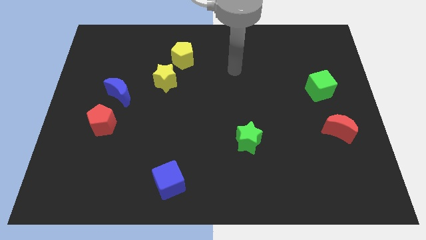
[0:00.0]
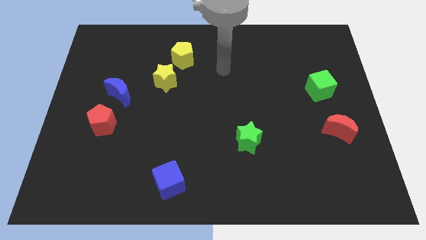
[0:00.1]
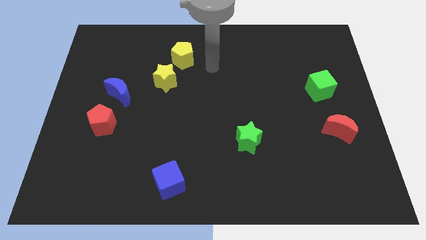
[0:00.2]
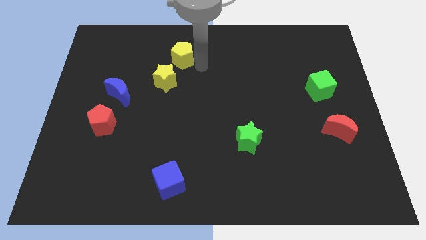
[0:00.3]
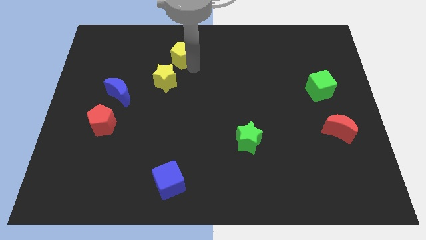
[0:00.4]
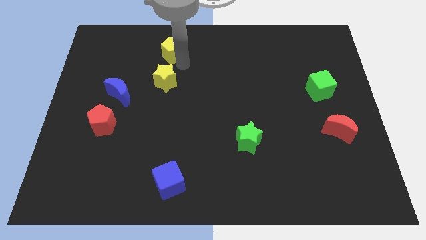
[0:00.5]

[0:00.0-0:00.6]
move the yellow star away from the yellow pentagon

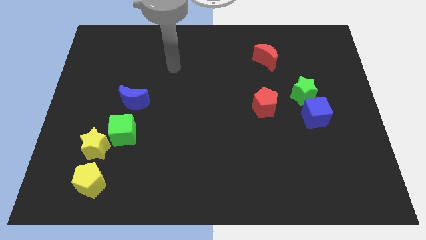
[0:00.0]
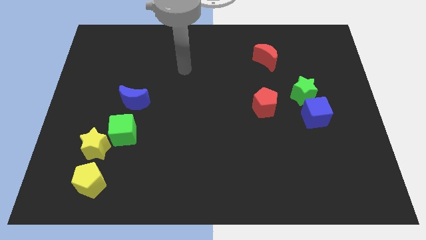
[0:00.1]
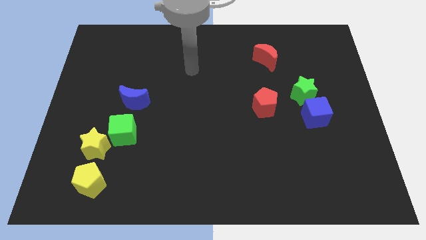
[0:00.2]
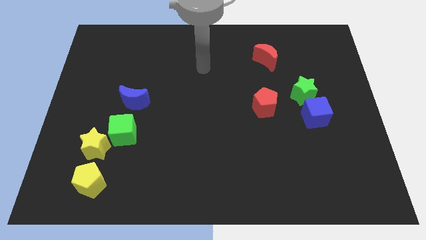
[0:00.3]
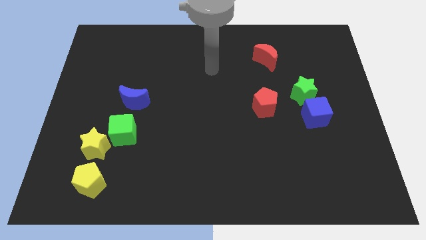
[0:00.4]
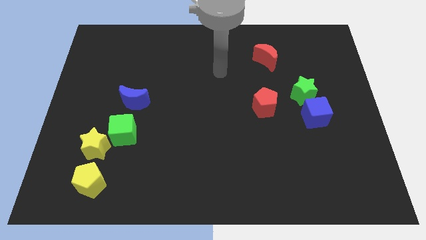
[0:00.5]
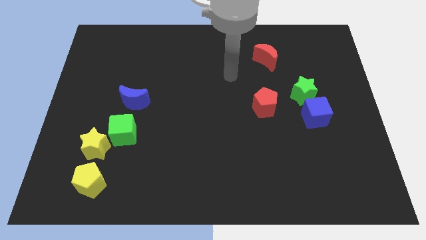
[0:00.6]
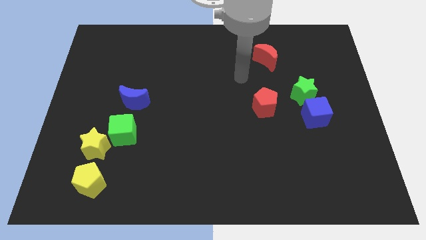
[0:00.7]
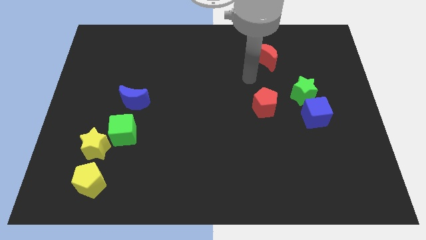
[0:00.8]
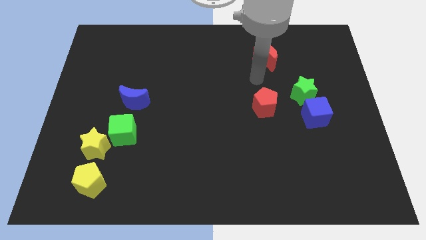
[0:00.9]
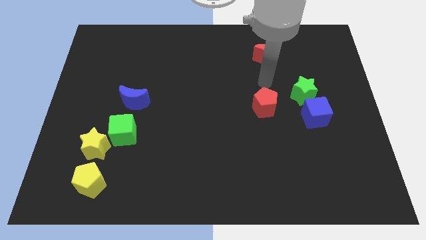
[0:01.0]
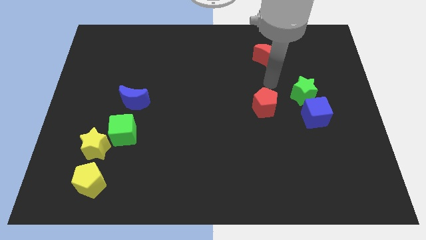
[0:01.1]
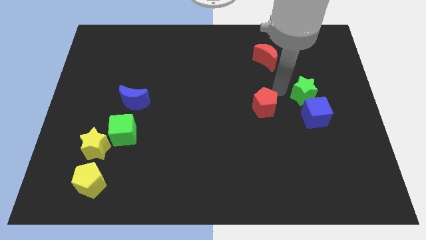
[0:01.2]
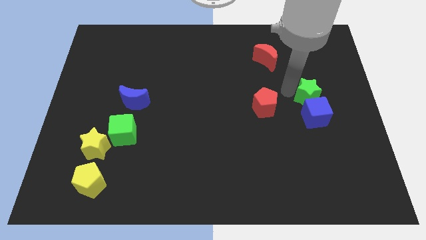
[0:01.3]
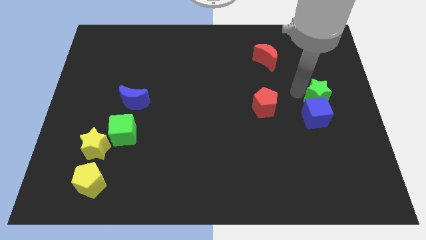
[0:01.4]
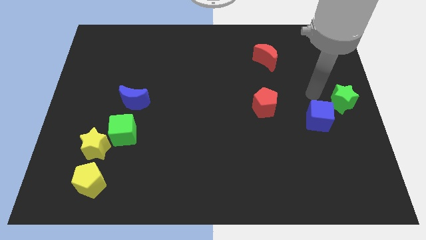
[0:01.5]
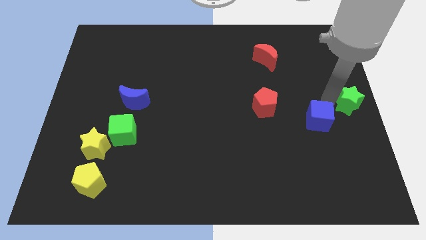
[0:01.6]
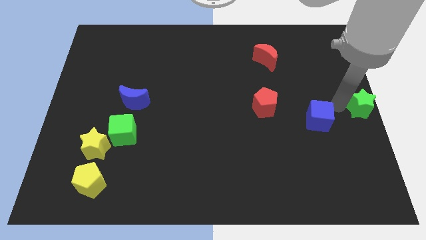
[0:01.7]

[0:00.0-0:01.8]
pull the blue cube apart from the green star

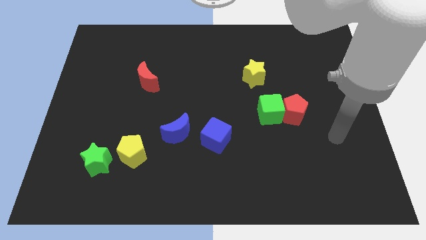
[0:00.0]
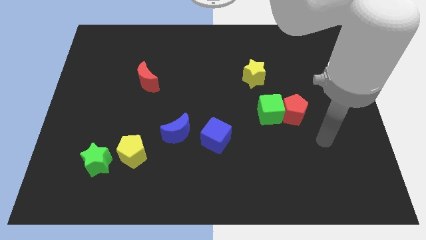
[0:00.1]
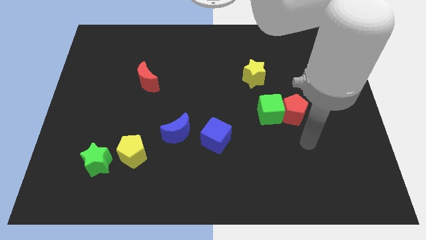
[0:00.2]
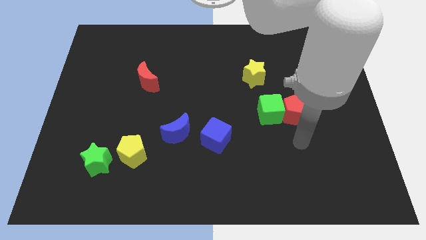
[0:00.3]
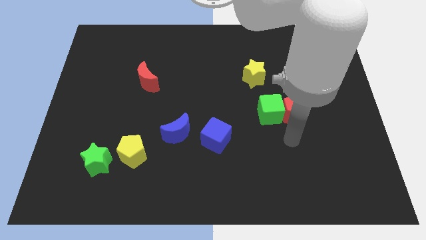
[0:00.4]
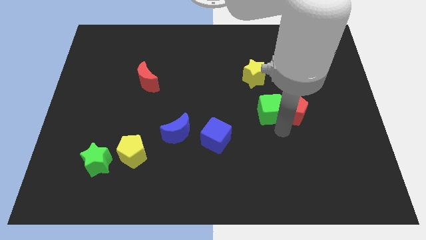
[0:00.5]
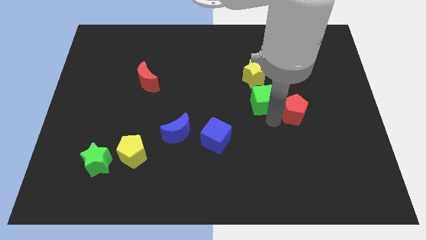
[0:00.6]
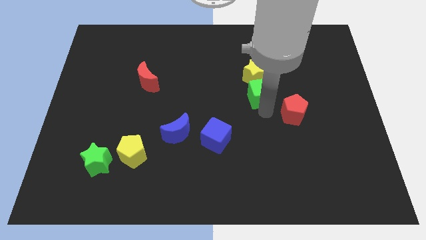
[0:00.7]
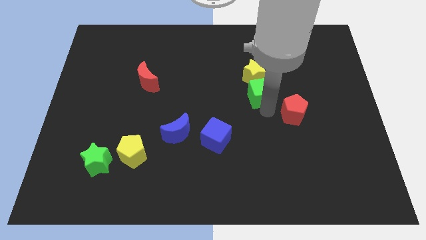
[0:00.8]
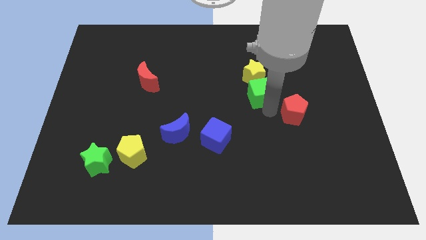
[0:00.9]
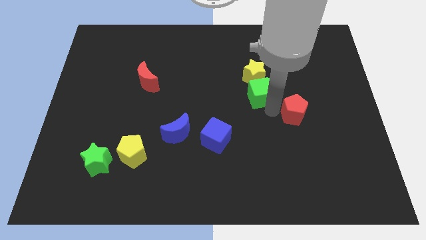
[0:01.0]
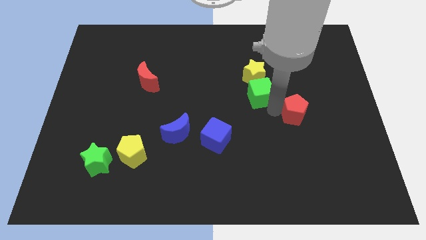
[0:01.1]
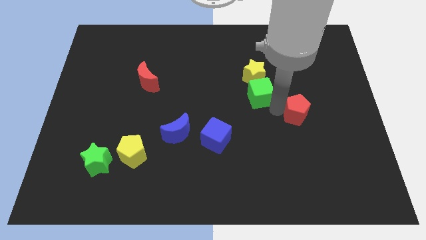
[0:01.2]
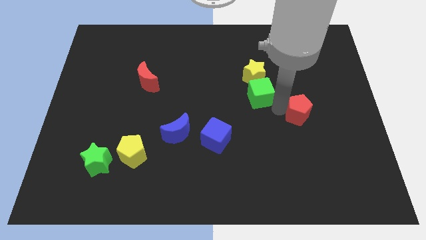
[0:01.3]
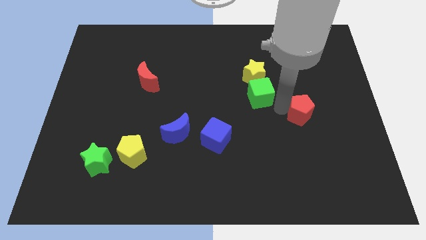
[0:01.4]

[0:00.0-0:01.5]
separate the red pentagon from the green cube

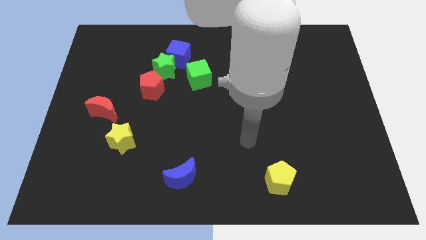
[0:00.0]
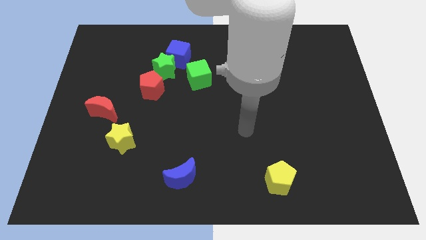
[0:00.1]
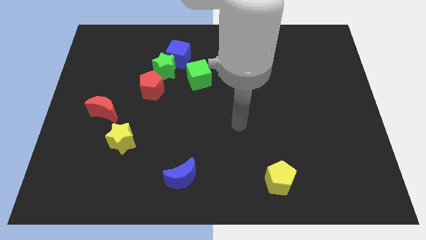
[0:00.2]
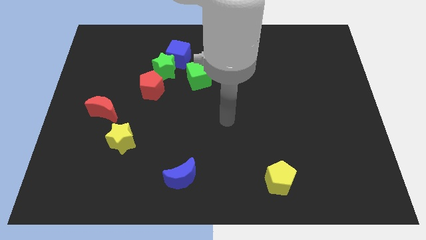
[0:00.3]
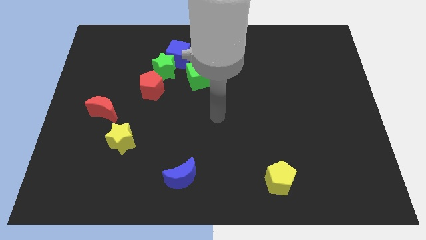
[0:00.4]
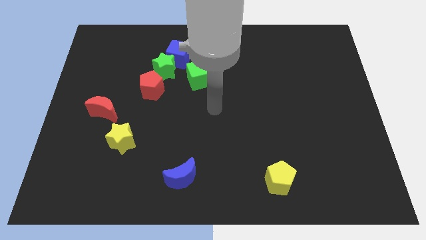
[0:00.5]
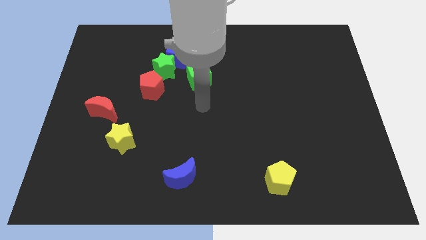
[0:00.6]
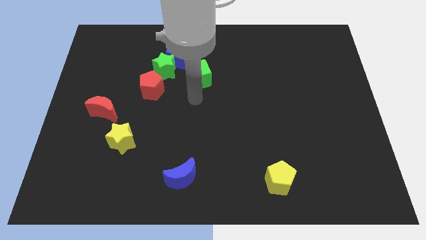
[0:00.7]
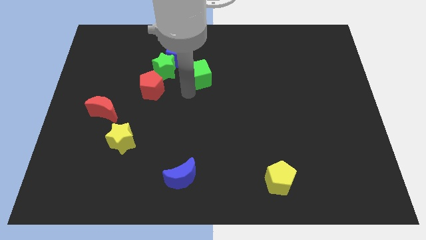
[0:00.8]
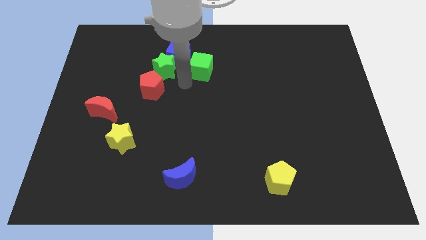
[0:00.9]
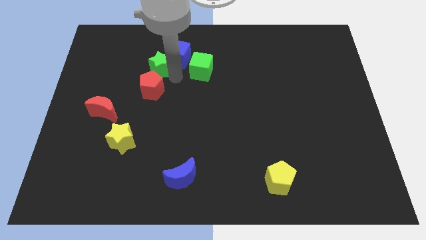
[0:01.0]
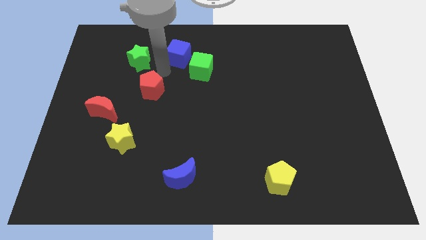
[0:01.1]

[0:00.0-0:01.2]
move the red pentagon away from the green star

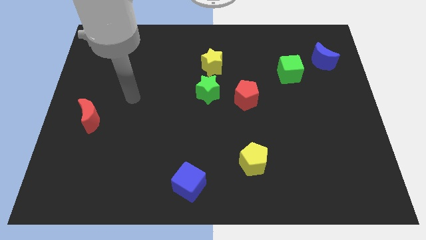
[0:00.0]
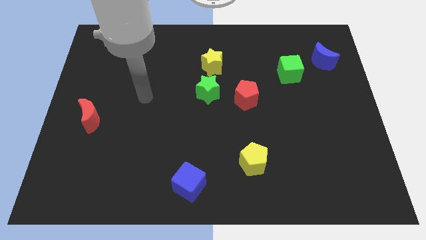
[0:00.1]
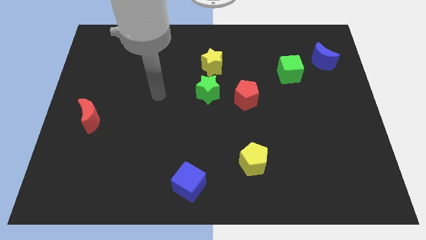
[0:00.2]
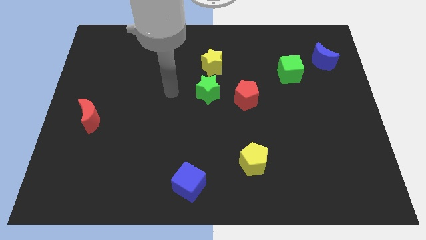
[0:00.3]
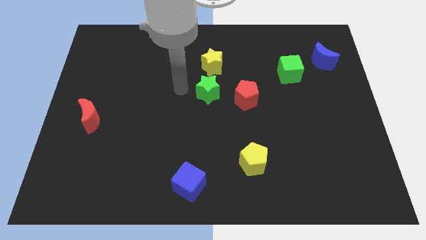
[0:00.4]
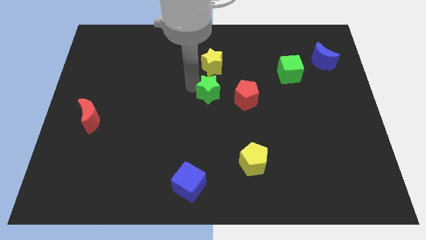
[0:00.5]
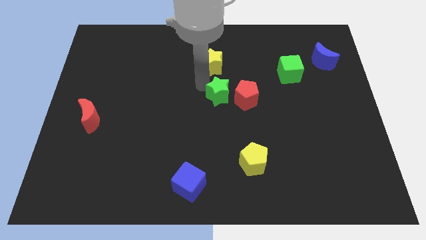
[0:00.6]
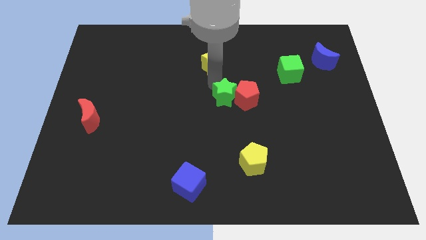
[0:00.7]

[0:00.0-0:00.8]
move the yellow star away from the green star

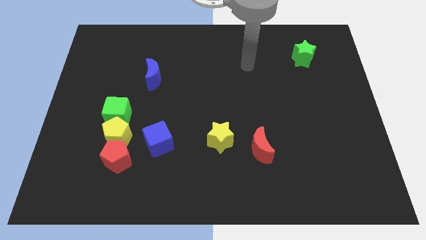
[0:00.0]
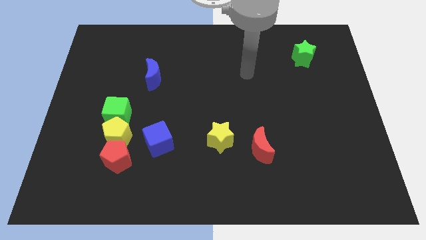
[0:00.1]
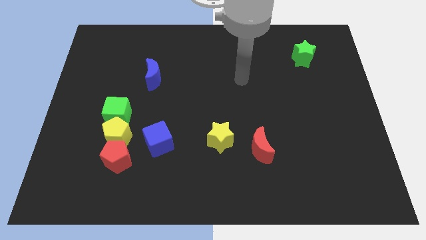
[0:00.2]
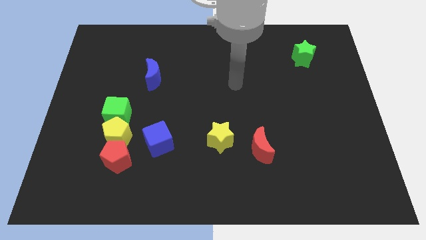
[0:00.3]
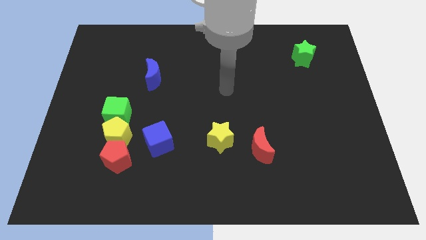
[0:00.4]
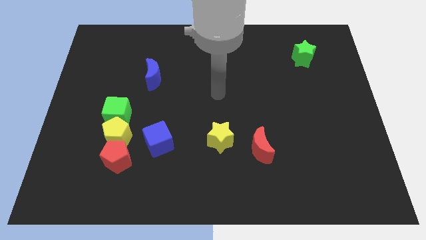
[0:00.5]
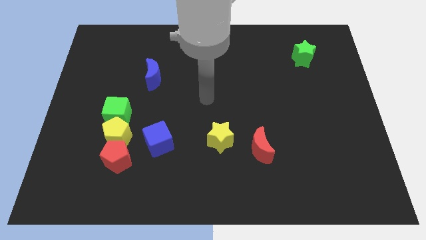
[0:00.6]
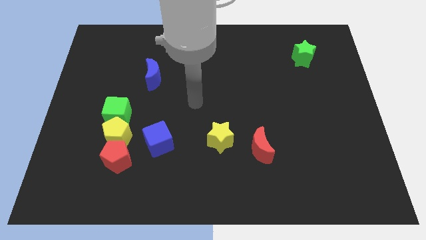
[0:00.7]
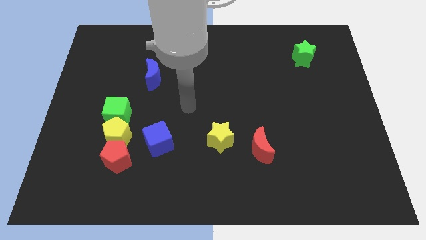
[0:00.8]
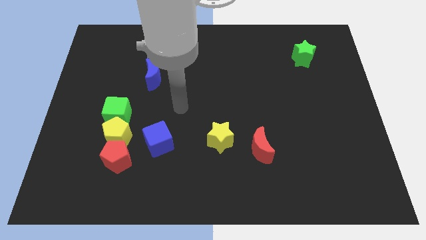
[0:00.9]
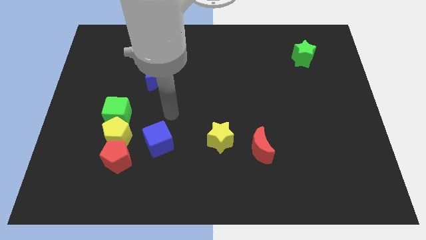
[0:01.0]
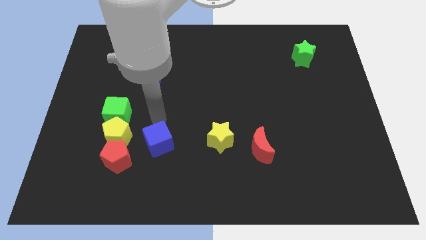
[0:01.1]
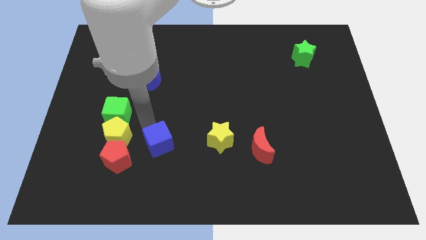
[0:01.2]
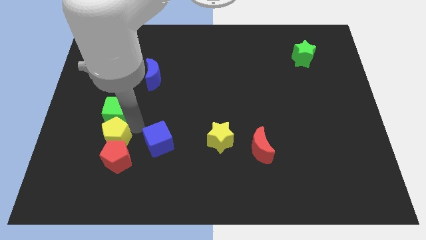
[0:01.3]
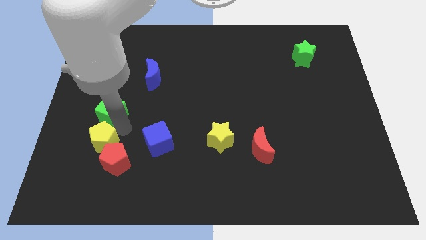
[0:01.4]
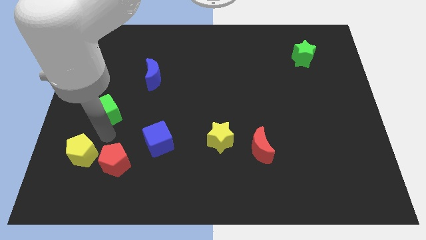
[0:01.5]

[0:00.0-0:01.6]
separate the green cube from the yellow pentagon

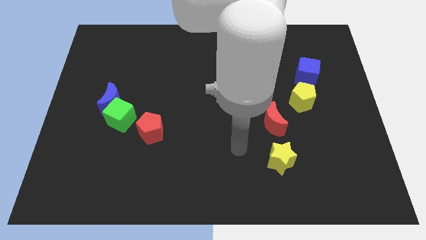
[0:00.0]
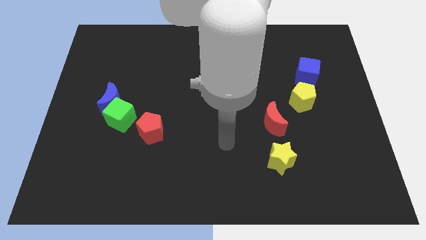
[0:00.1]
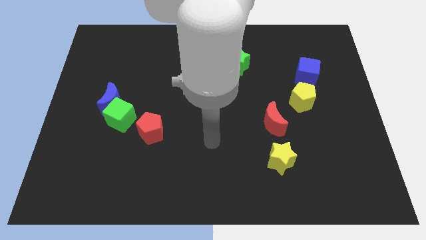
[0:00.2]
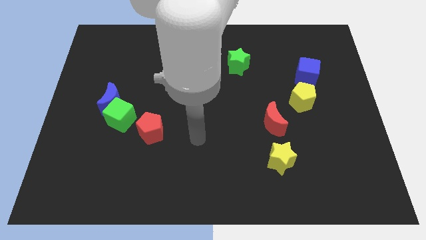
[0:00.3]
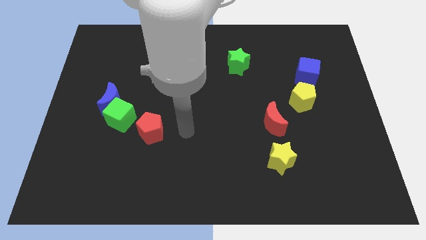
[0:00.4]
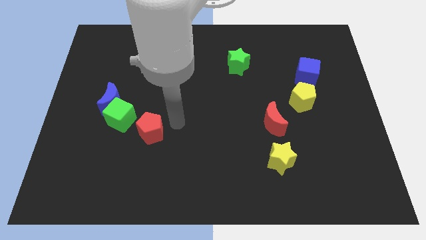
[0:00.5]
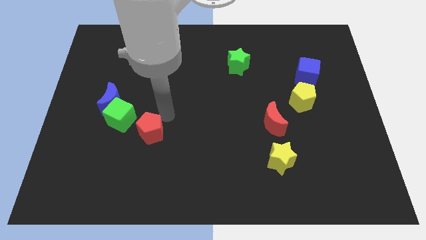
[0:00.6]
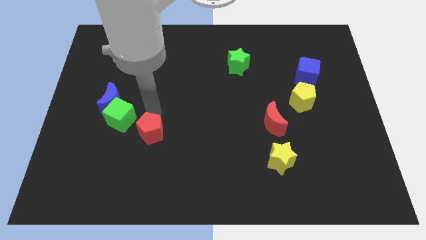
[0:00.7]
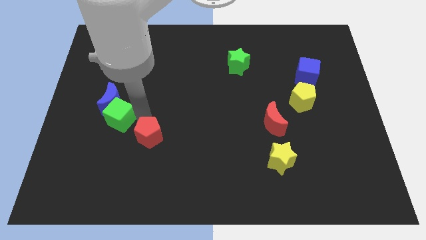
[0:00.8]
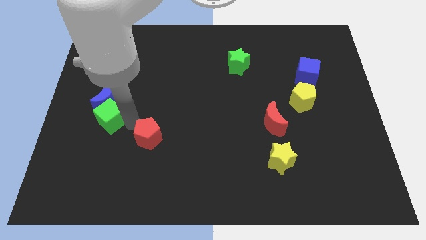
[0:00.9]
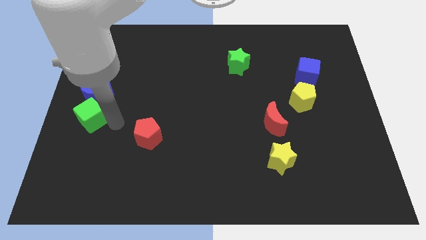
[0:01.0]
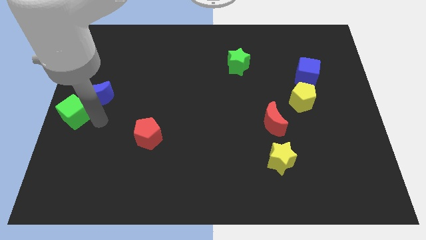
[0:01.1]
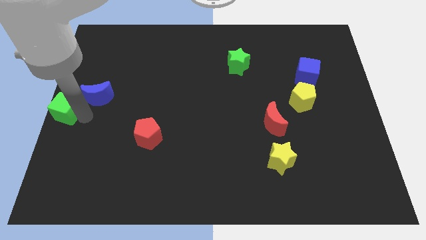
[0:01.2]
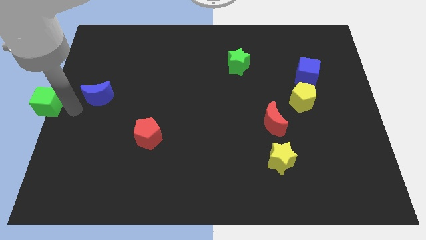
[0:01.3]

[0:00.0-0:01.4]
move the blue moon away from the green cube

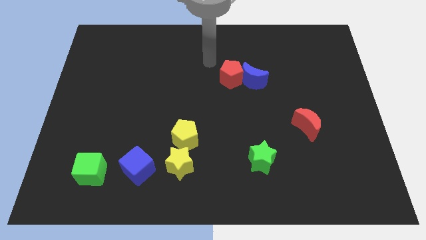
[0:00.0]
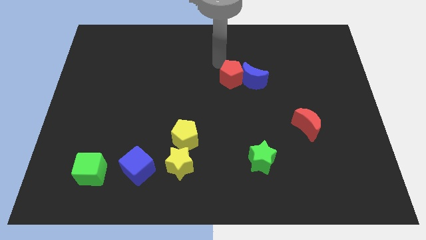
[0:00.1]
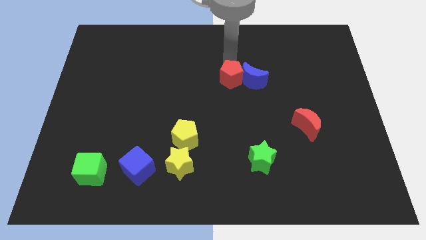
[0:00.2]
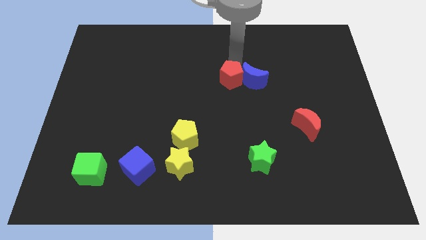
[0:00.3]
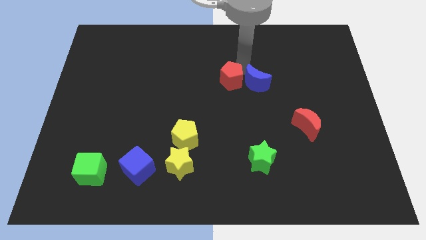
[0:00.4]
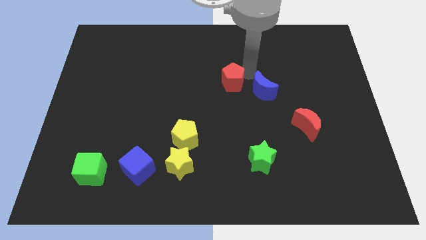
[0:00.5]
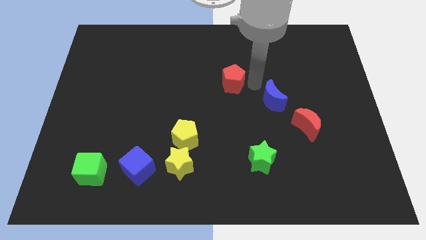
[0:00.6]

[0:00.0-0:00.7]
pull the red pentagon apart from the blue moon
